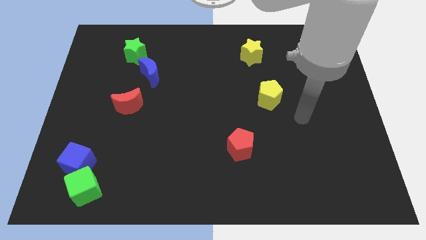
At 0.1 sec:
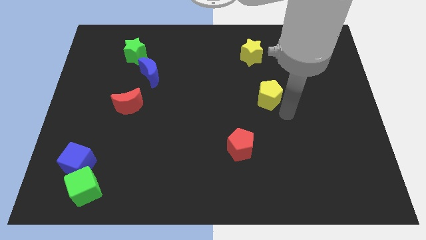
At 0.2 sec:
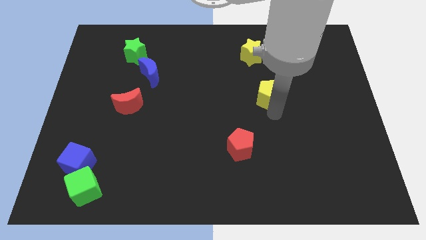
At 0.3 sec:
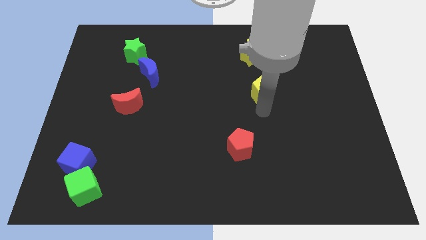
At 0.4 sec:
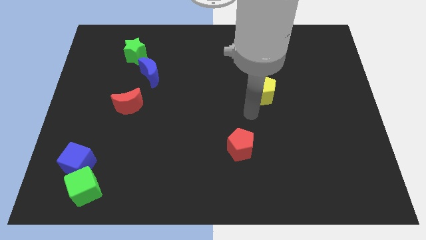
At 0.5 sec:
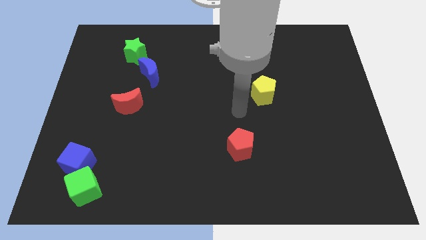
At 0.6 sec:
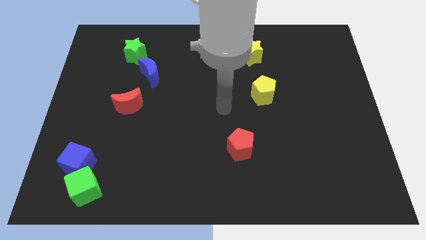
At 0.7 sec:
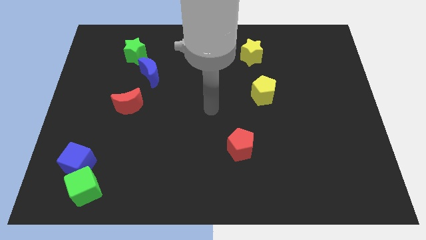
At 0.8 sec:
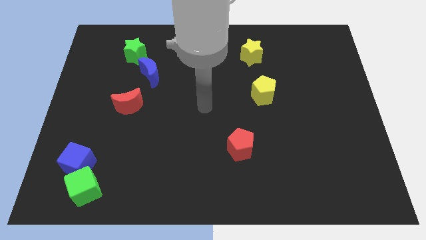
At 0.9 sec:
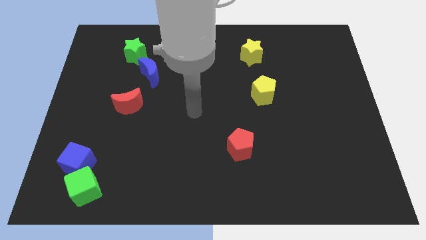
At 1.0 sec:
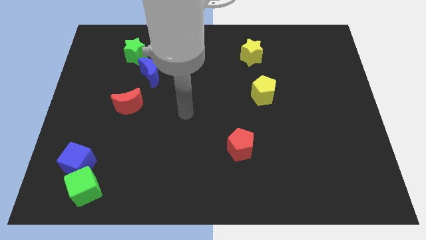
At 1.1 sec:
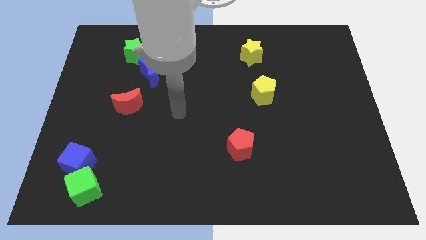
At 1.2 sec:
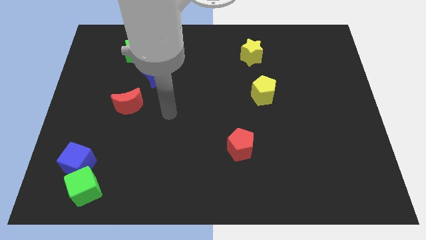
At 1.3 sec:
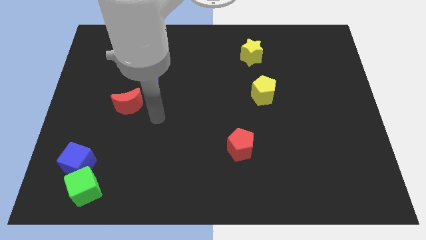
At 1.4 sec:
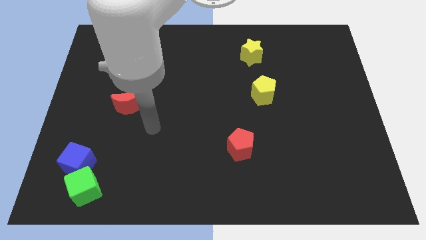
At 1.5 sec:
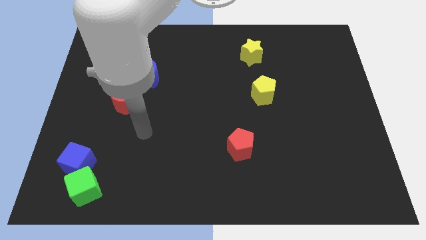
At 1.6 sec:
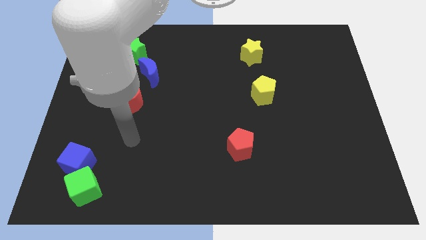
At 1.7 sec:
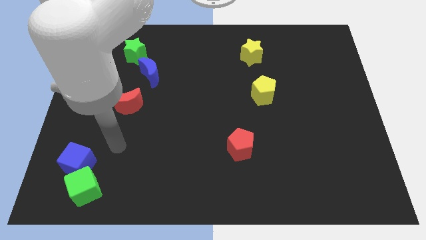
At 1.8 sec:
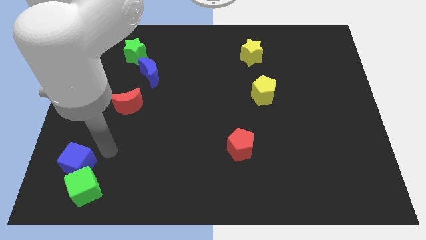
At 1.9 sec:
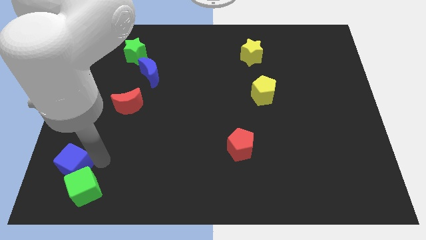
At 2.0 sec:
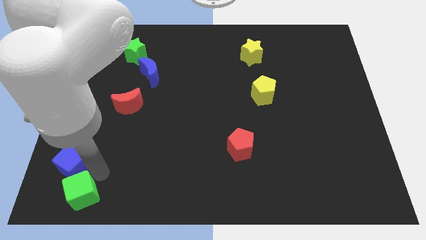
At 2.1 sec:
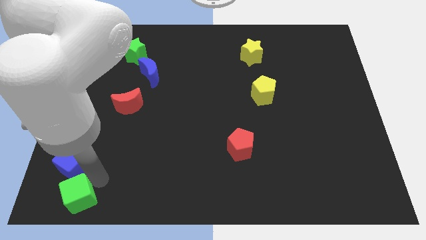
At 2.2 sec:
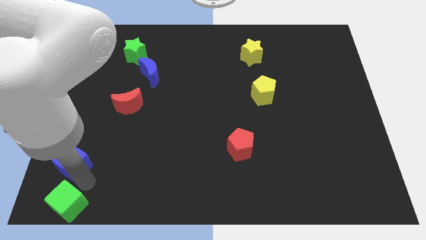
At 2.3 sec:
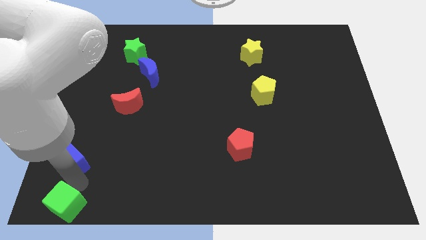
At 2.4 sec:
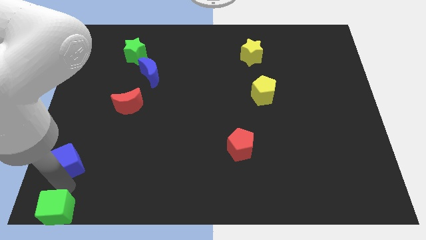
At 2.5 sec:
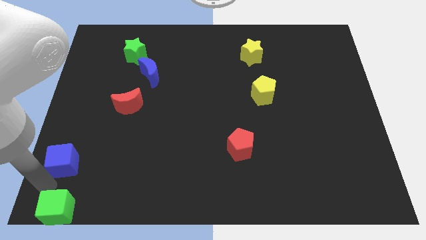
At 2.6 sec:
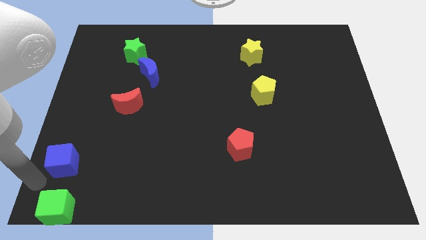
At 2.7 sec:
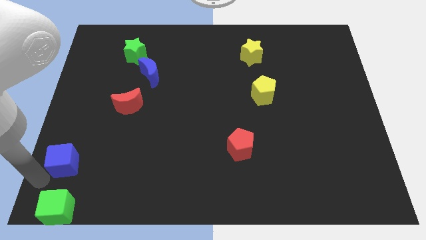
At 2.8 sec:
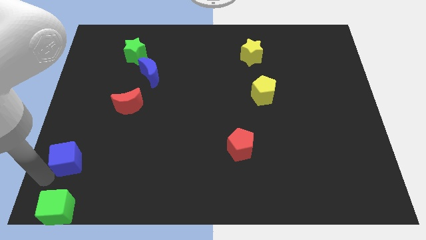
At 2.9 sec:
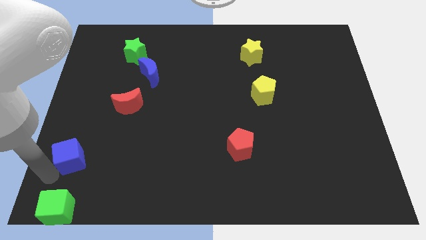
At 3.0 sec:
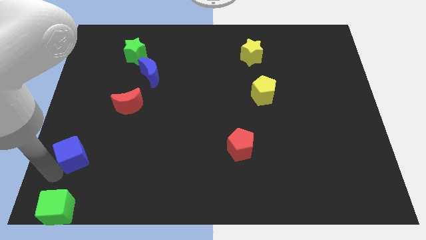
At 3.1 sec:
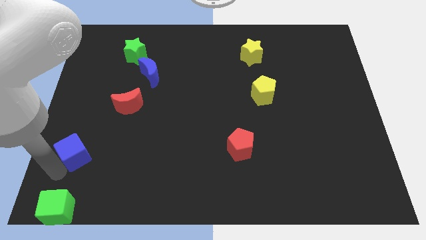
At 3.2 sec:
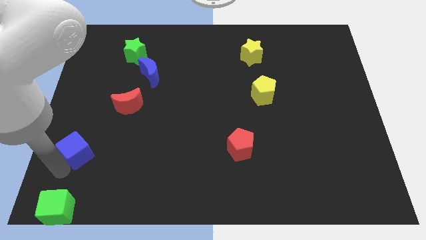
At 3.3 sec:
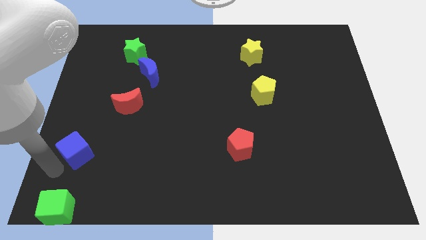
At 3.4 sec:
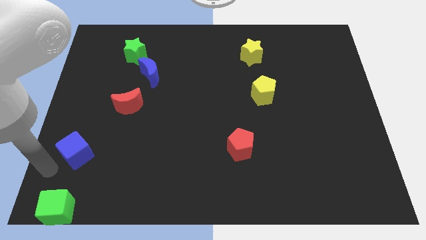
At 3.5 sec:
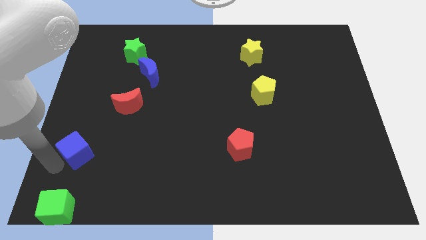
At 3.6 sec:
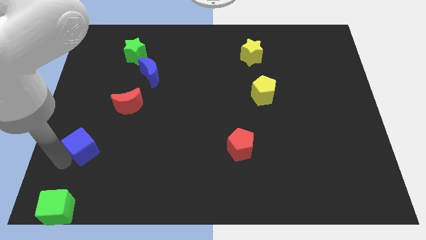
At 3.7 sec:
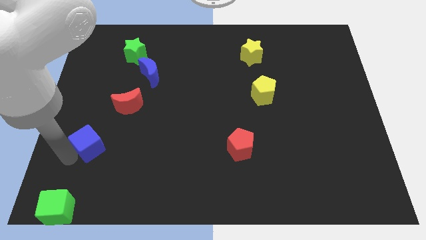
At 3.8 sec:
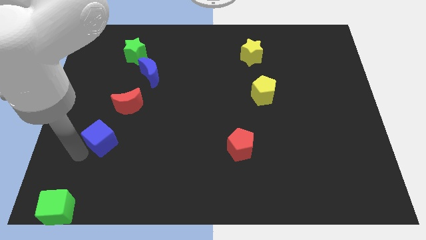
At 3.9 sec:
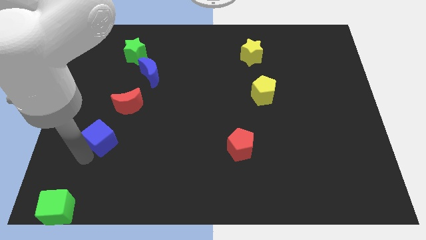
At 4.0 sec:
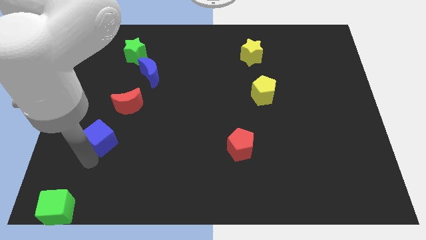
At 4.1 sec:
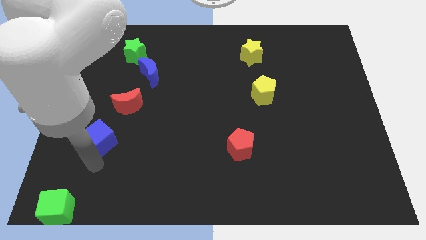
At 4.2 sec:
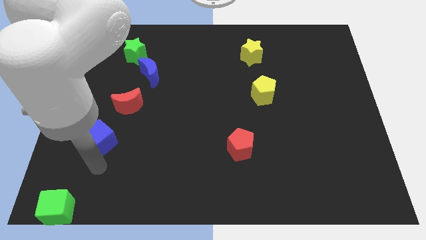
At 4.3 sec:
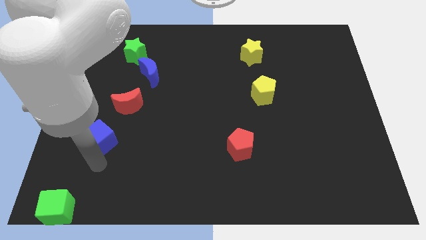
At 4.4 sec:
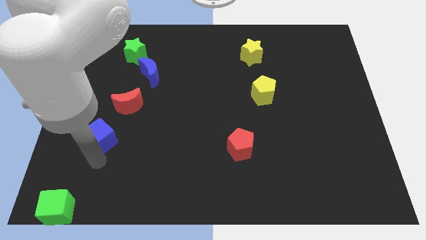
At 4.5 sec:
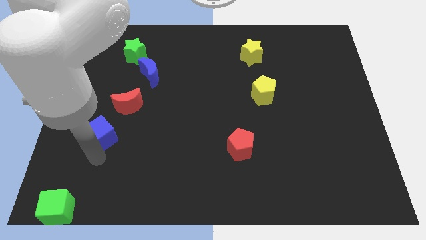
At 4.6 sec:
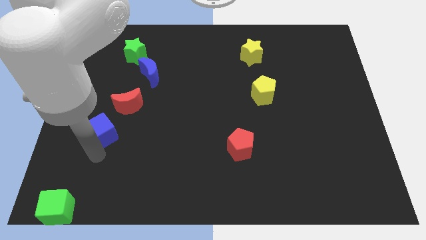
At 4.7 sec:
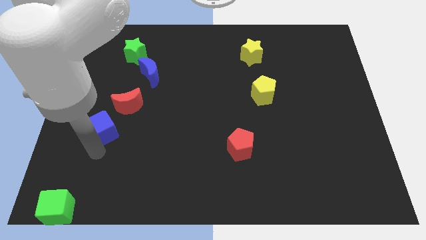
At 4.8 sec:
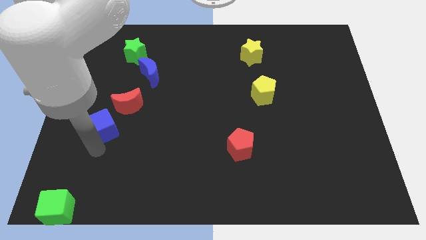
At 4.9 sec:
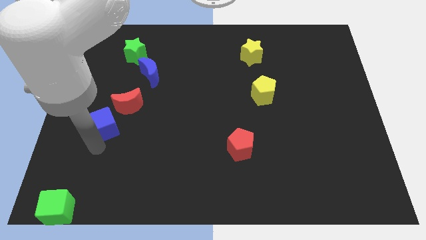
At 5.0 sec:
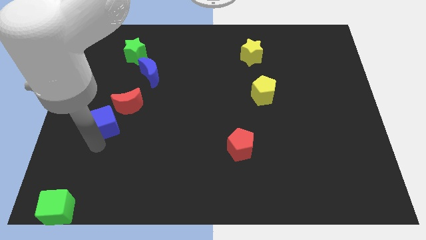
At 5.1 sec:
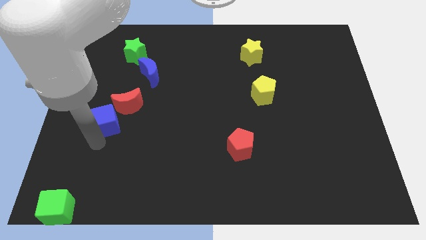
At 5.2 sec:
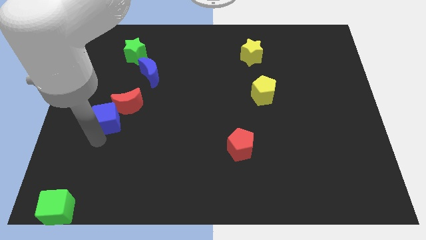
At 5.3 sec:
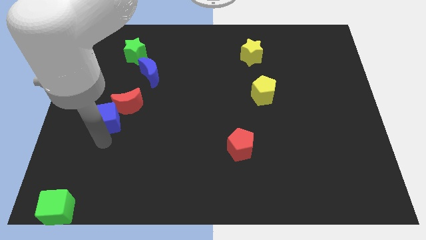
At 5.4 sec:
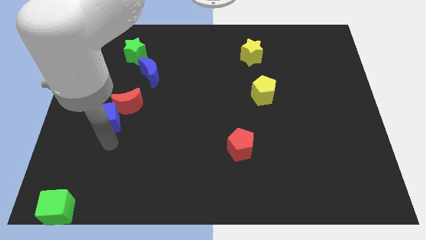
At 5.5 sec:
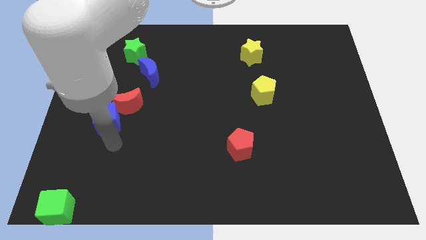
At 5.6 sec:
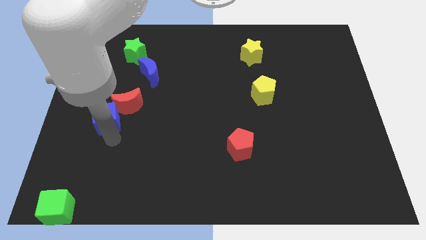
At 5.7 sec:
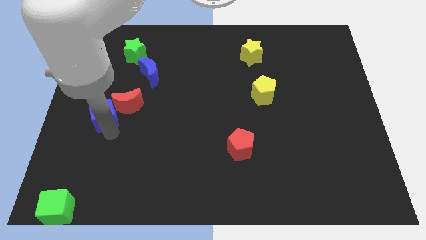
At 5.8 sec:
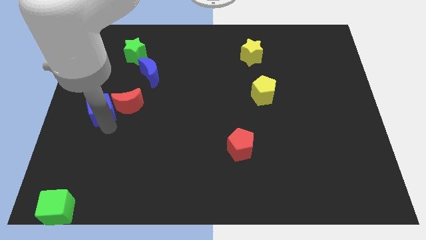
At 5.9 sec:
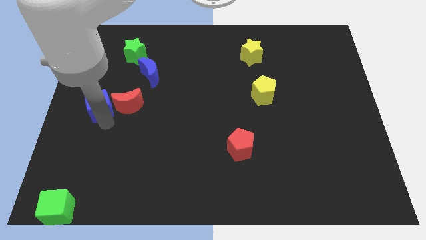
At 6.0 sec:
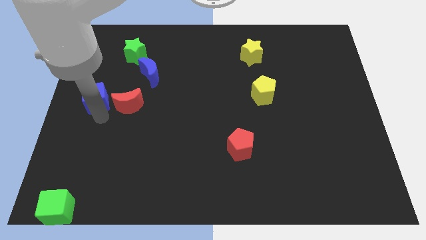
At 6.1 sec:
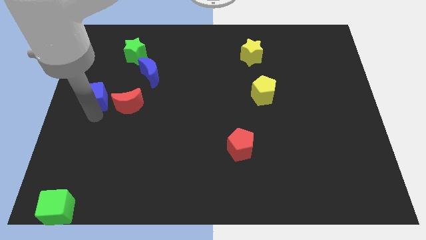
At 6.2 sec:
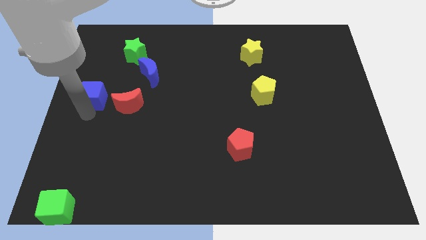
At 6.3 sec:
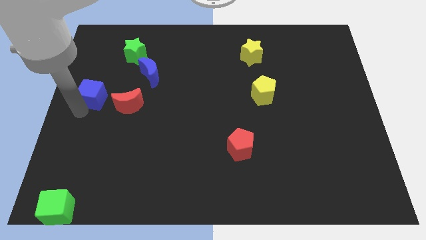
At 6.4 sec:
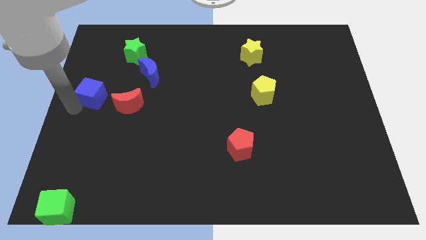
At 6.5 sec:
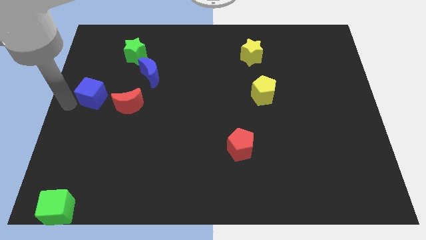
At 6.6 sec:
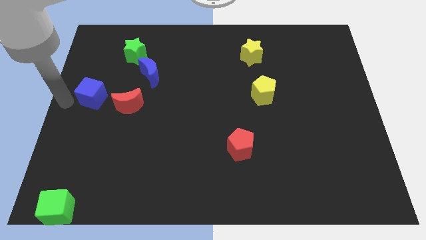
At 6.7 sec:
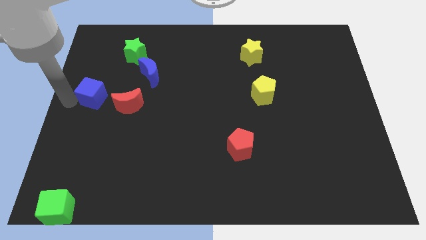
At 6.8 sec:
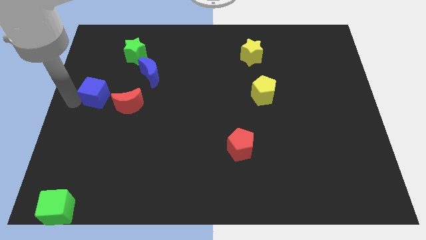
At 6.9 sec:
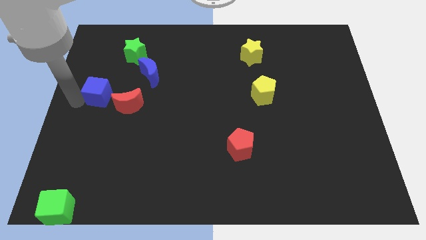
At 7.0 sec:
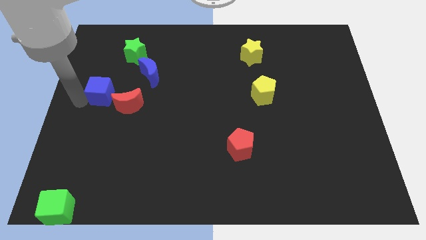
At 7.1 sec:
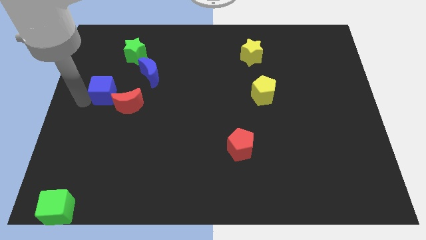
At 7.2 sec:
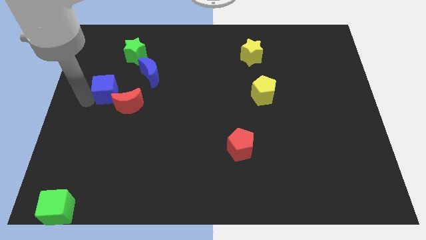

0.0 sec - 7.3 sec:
put the blue cube to the bottom left side of the blue moon
